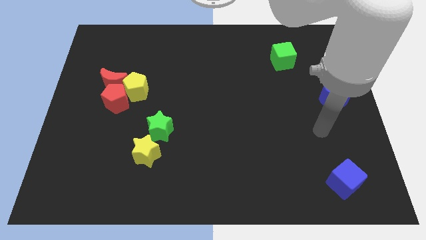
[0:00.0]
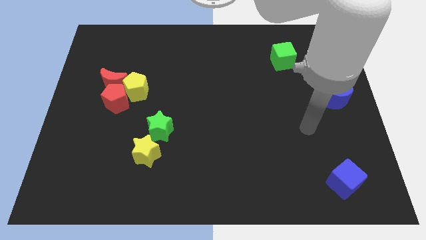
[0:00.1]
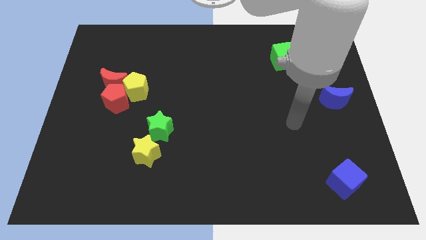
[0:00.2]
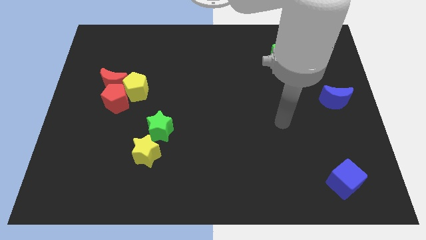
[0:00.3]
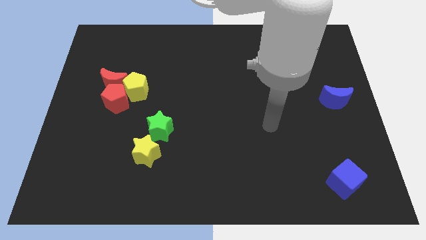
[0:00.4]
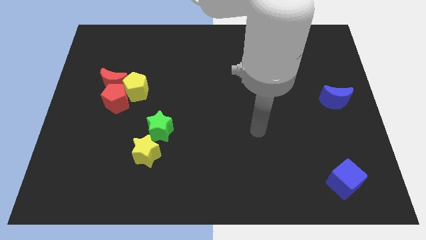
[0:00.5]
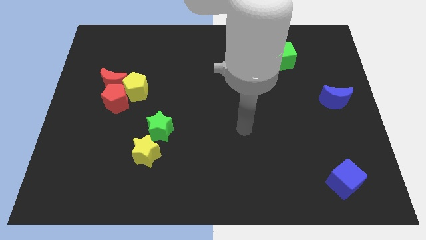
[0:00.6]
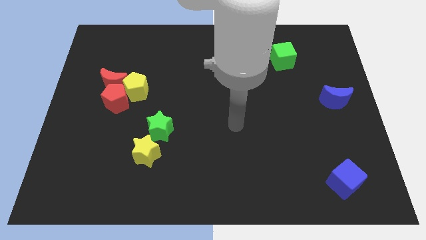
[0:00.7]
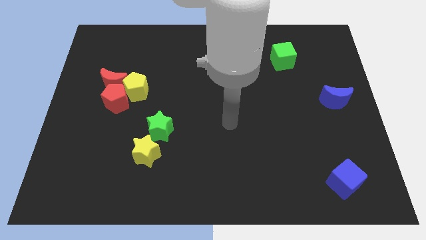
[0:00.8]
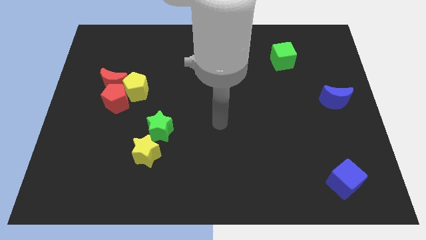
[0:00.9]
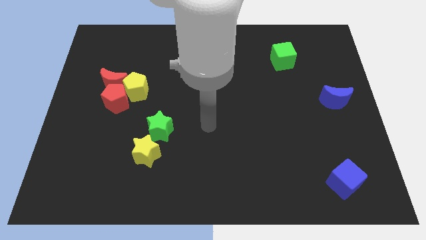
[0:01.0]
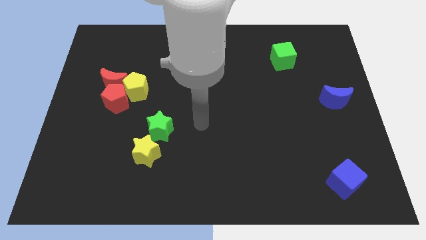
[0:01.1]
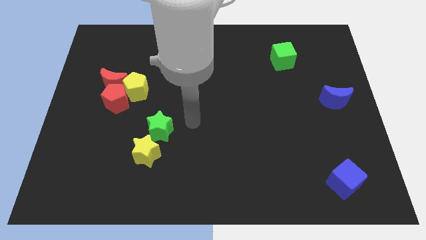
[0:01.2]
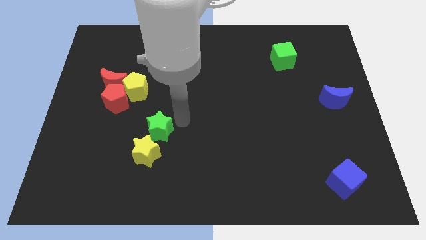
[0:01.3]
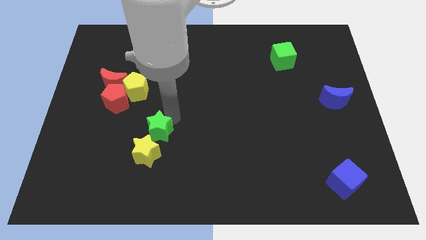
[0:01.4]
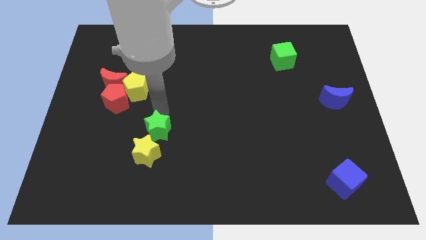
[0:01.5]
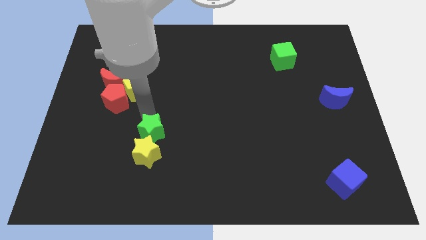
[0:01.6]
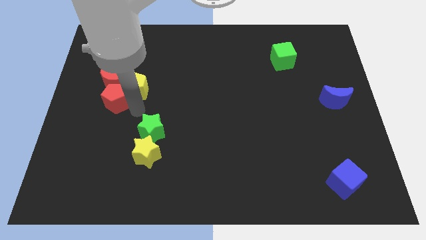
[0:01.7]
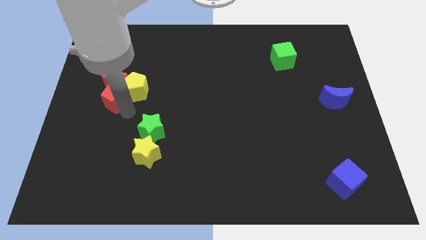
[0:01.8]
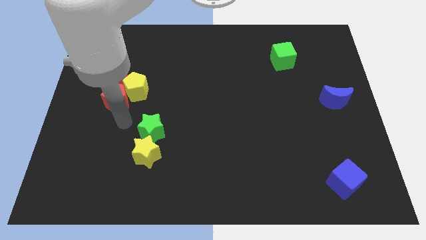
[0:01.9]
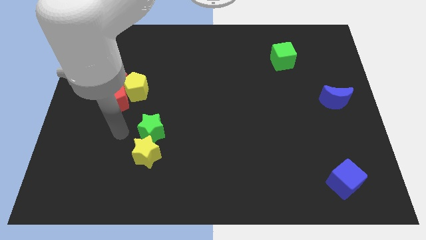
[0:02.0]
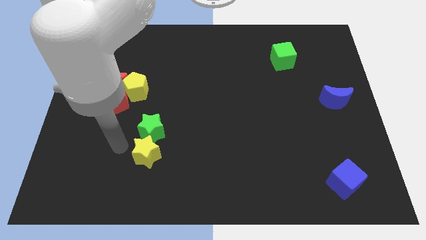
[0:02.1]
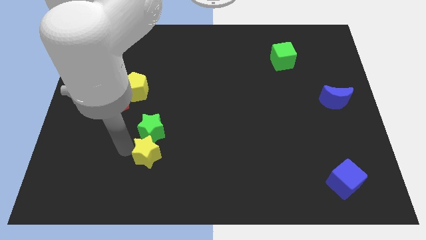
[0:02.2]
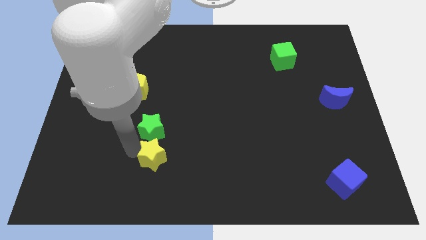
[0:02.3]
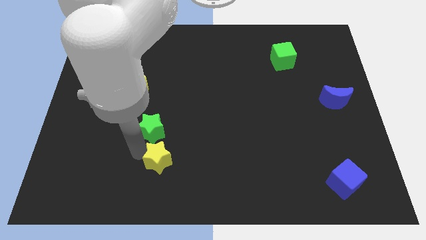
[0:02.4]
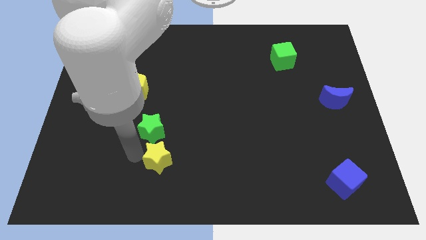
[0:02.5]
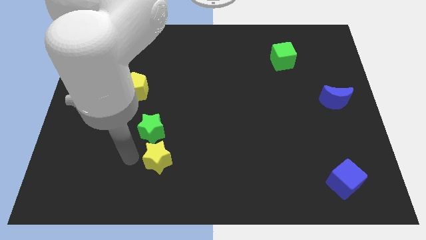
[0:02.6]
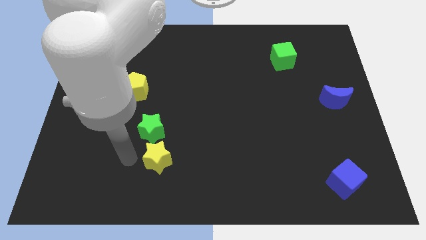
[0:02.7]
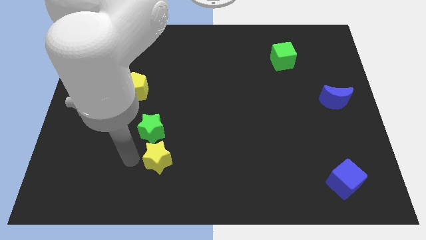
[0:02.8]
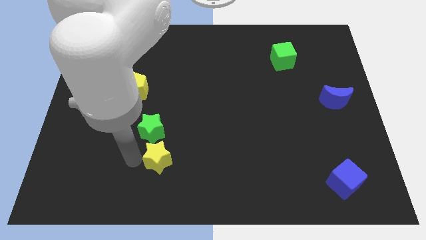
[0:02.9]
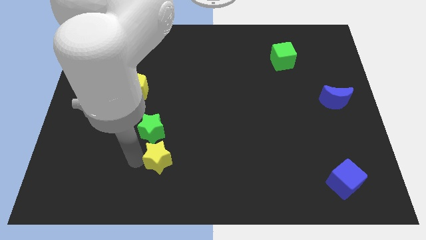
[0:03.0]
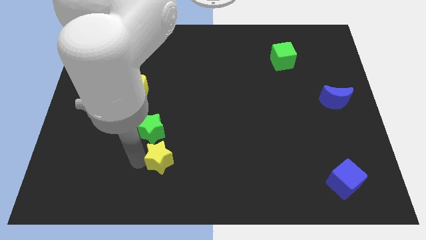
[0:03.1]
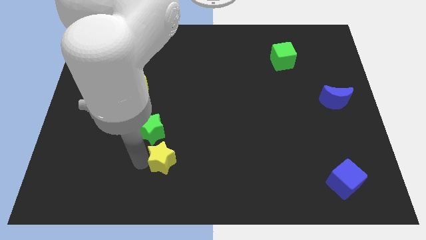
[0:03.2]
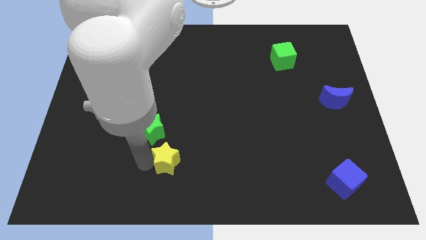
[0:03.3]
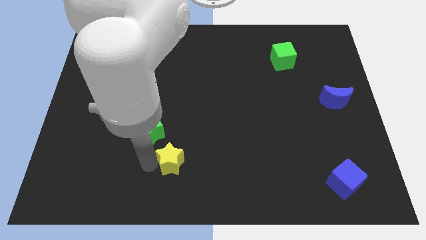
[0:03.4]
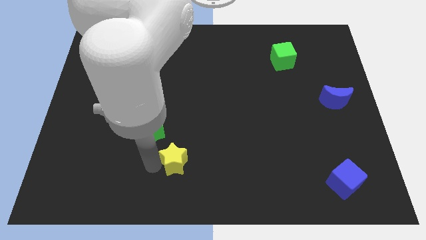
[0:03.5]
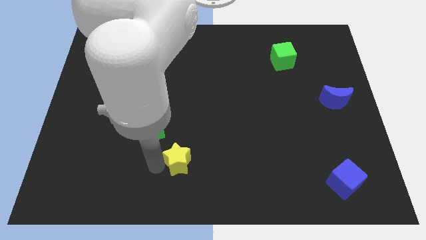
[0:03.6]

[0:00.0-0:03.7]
slightly push the yellow star to the right

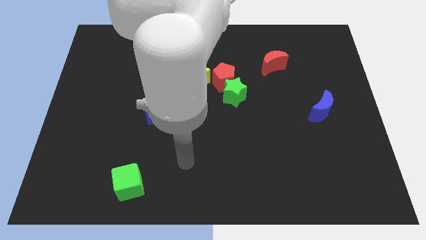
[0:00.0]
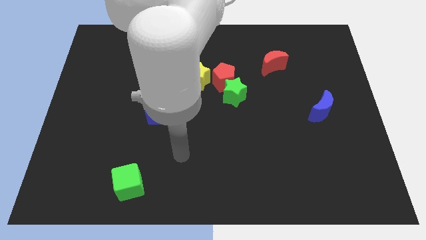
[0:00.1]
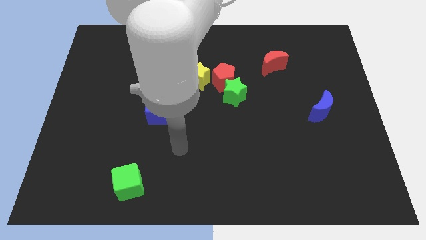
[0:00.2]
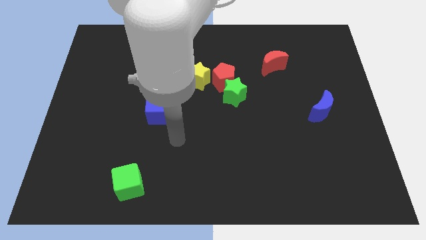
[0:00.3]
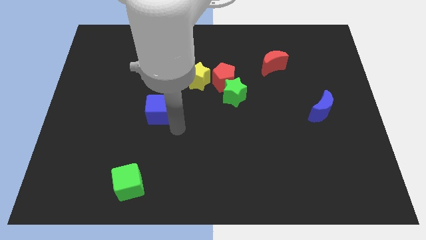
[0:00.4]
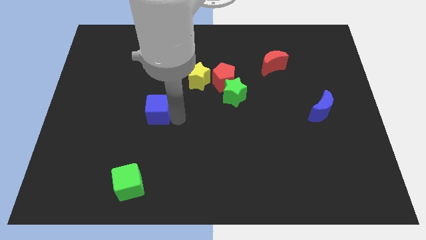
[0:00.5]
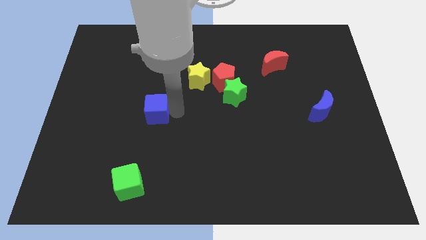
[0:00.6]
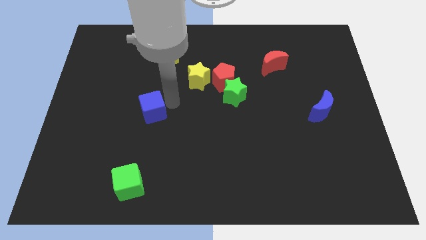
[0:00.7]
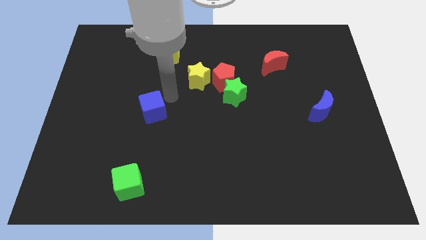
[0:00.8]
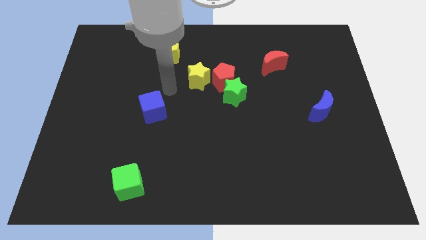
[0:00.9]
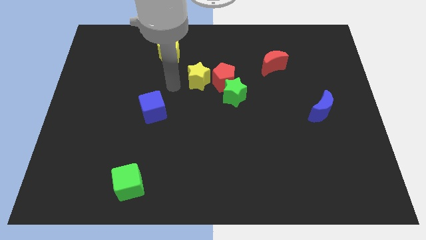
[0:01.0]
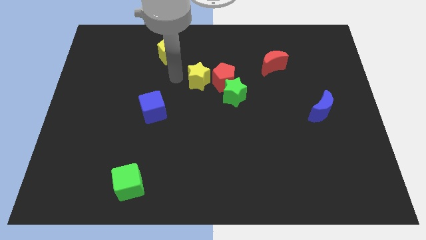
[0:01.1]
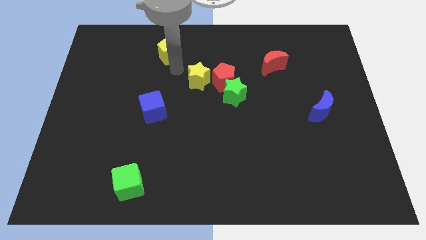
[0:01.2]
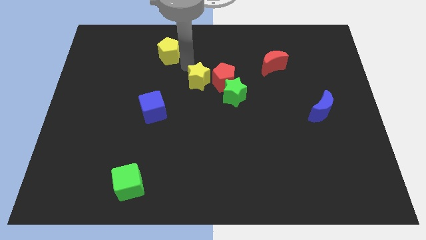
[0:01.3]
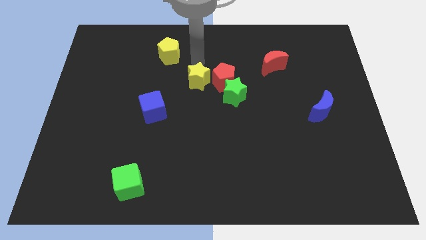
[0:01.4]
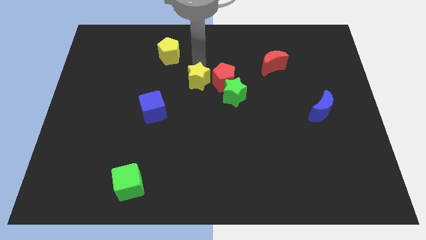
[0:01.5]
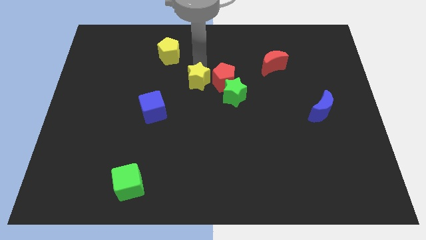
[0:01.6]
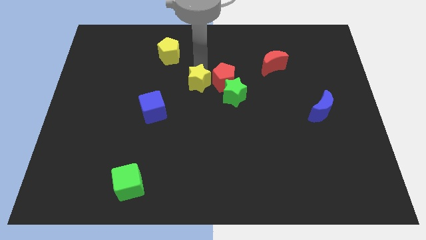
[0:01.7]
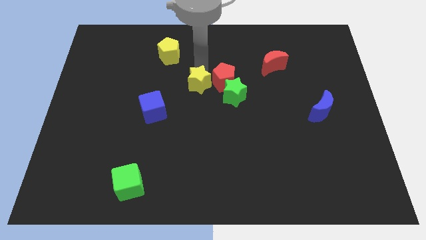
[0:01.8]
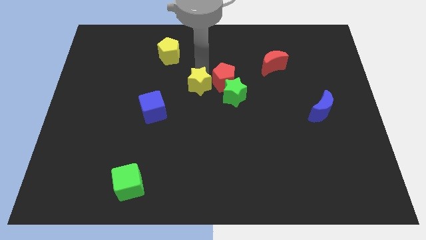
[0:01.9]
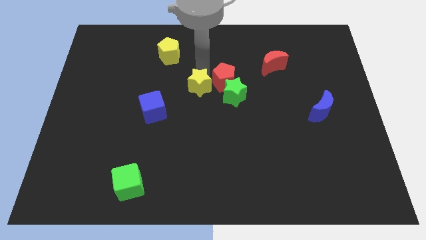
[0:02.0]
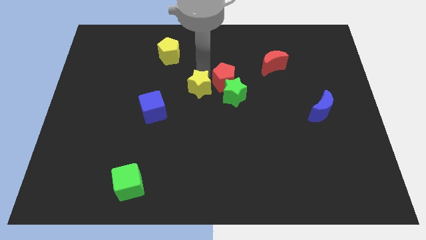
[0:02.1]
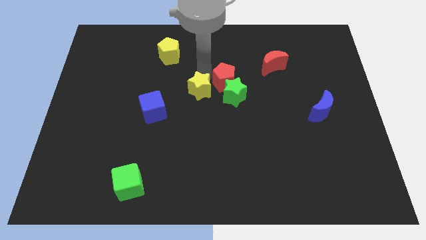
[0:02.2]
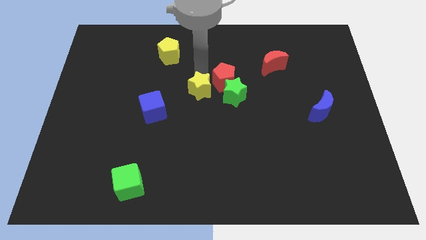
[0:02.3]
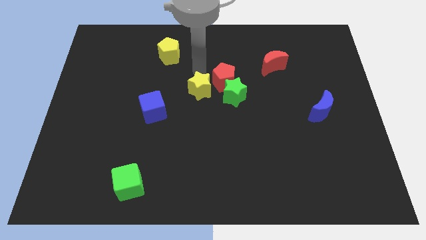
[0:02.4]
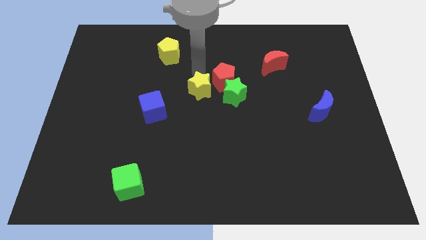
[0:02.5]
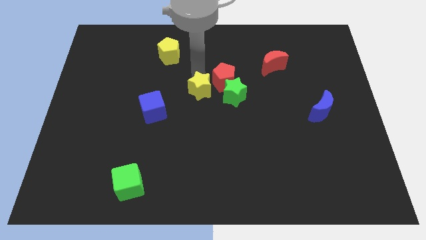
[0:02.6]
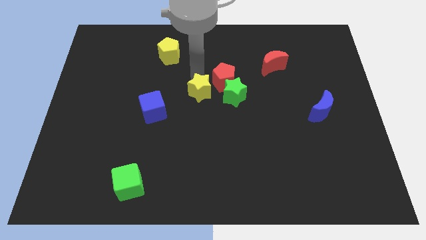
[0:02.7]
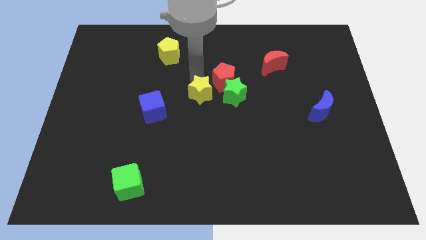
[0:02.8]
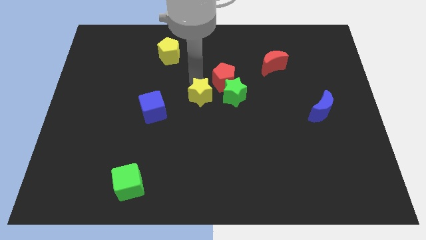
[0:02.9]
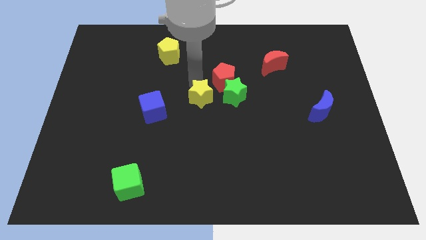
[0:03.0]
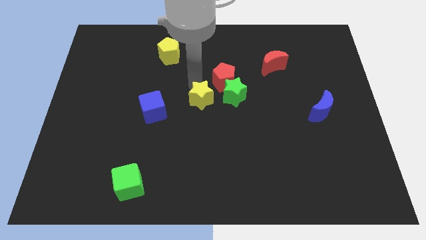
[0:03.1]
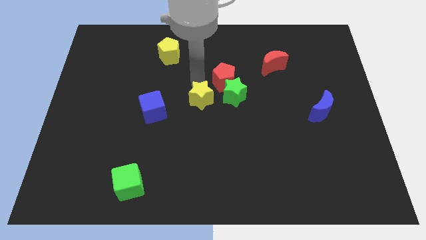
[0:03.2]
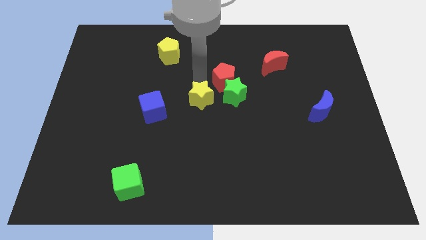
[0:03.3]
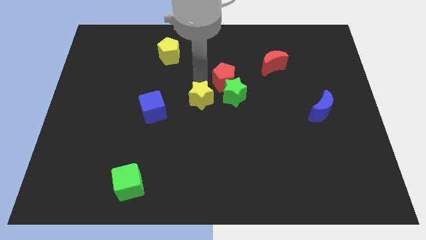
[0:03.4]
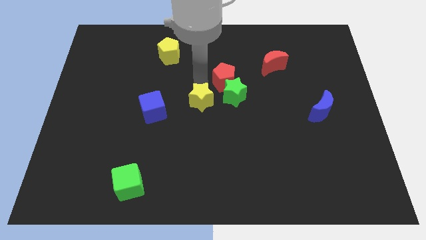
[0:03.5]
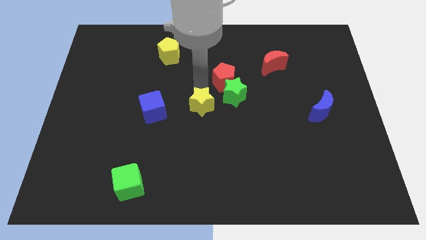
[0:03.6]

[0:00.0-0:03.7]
slide the yellow star somewhat down

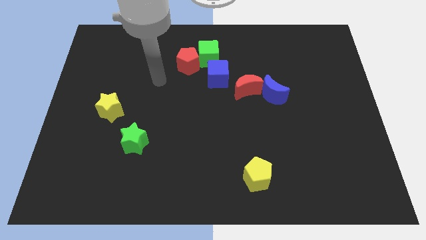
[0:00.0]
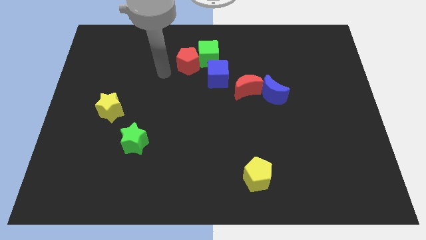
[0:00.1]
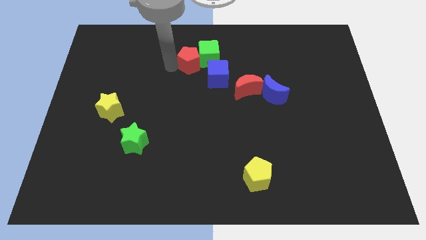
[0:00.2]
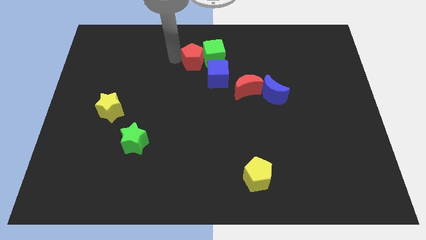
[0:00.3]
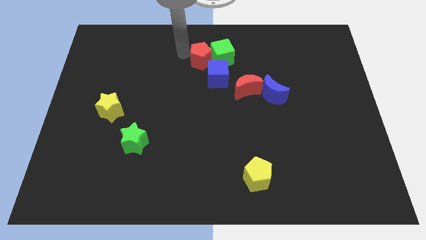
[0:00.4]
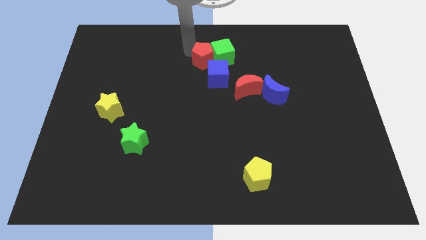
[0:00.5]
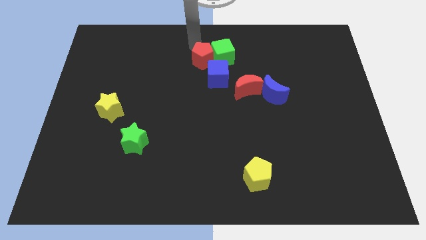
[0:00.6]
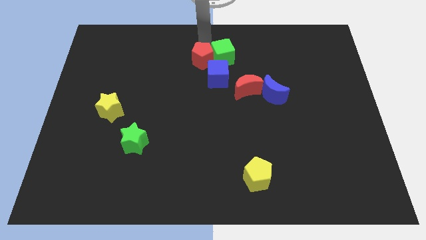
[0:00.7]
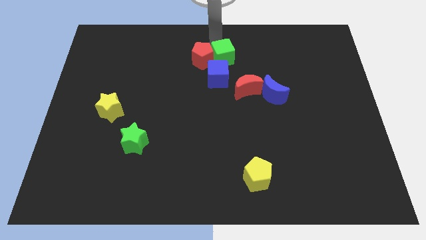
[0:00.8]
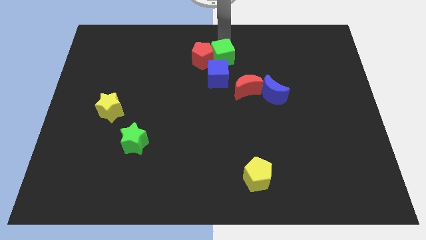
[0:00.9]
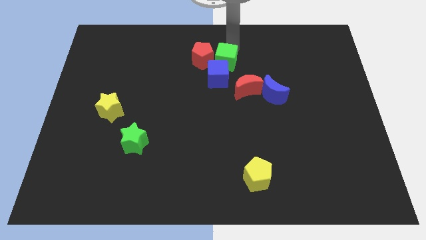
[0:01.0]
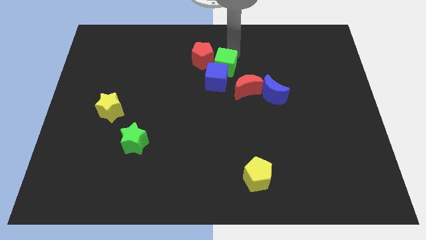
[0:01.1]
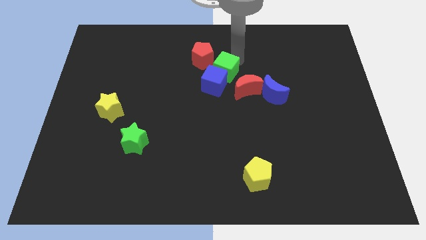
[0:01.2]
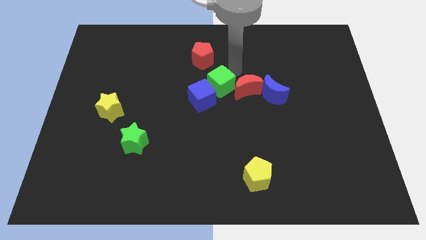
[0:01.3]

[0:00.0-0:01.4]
push the blue cube slightly downwards and to the left
